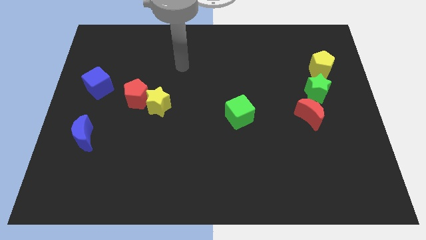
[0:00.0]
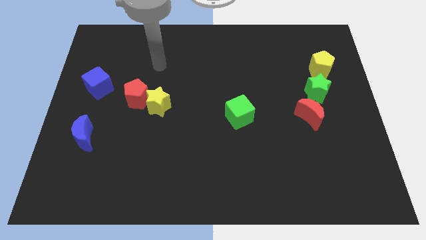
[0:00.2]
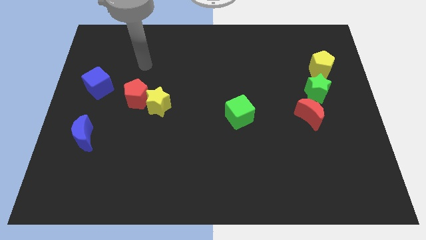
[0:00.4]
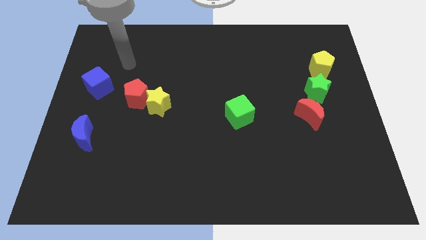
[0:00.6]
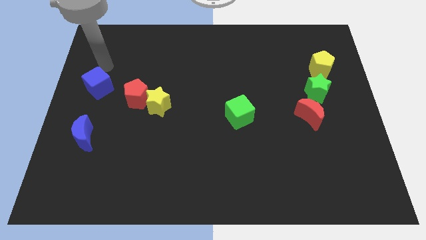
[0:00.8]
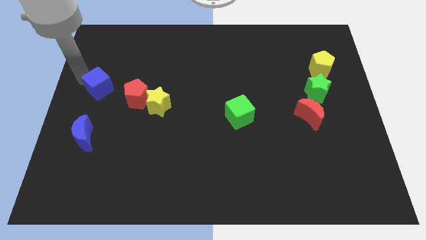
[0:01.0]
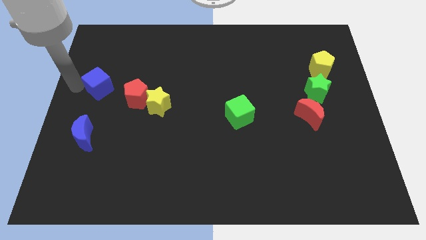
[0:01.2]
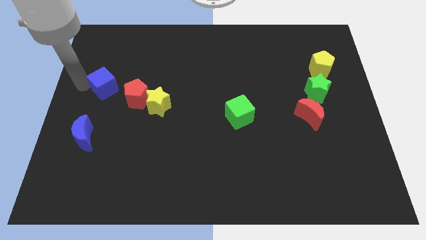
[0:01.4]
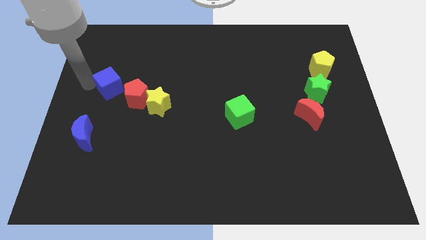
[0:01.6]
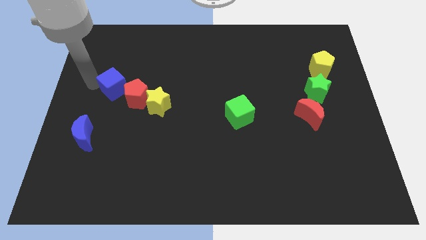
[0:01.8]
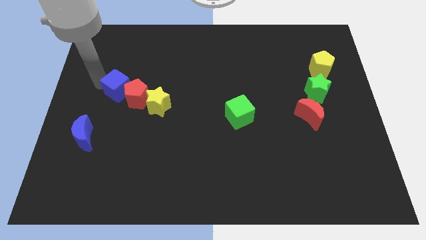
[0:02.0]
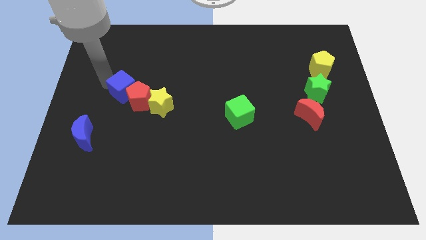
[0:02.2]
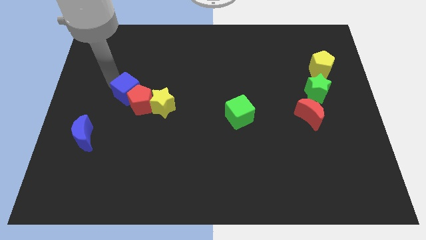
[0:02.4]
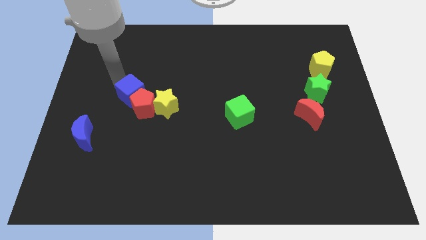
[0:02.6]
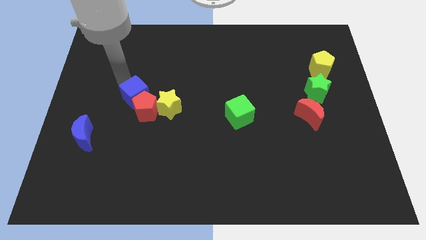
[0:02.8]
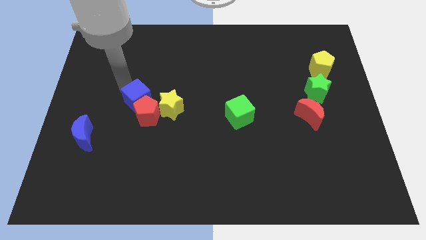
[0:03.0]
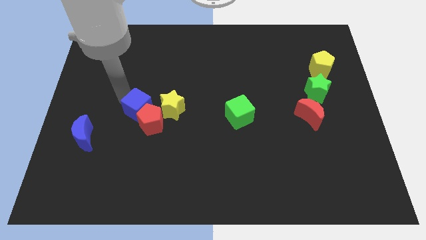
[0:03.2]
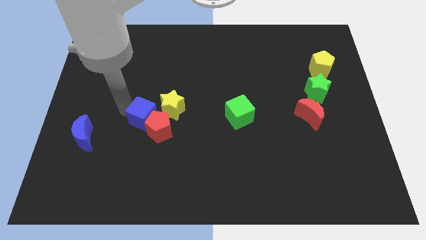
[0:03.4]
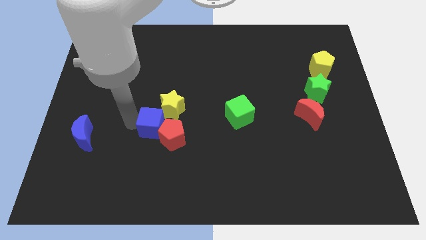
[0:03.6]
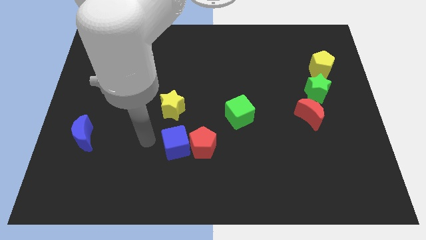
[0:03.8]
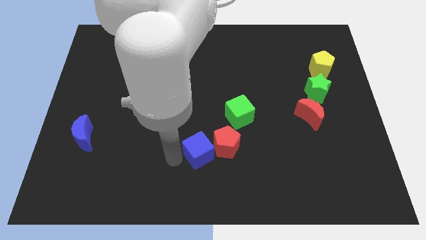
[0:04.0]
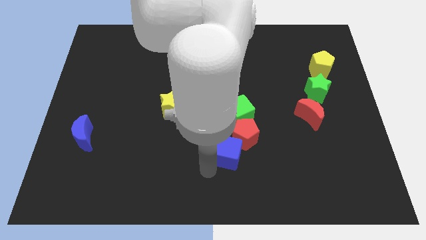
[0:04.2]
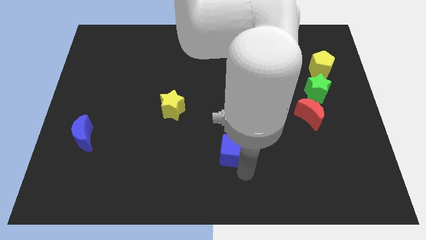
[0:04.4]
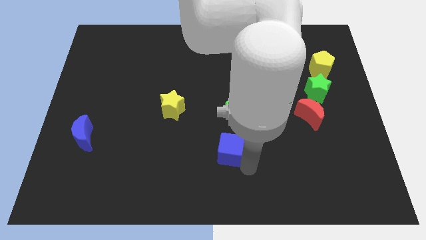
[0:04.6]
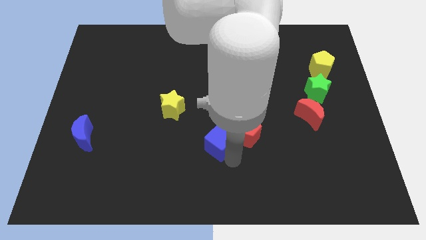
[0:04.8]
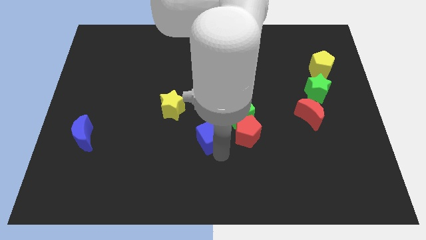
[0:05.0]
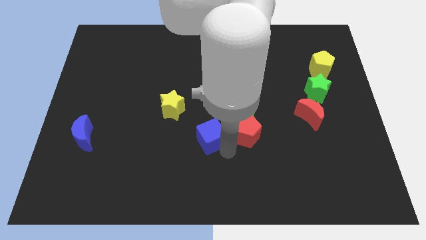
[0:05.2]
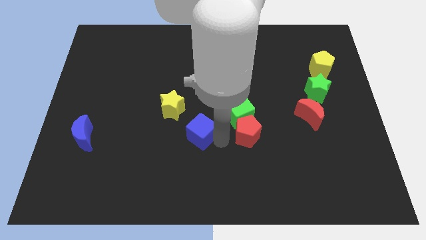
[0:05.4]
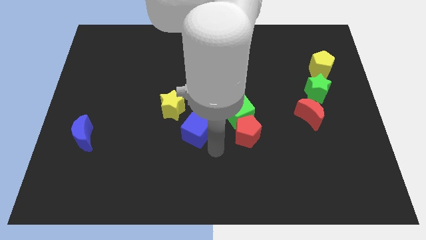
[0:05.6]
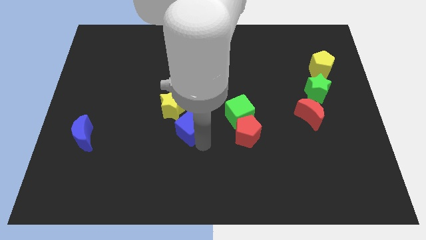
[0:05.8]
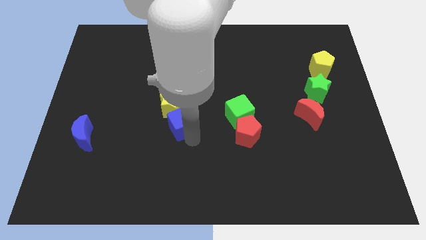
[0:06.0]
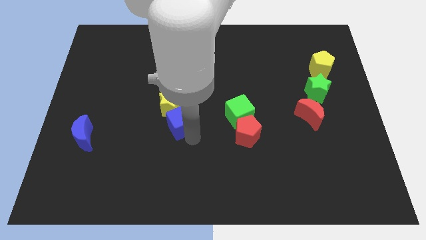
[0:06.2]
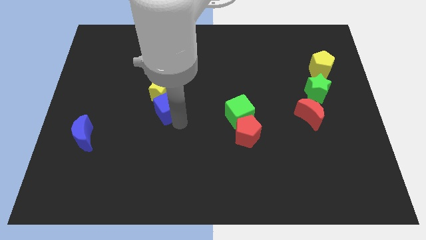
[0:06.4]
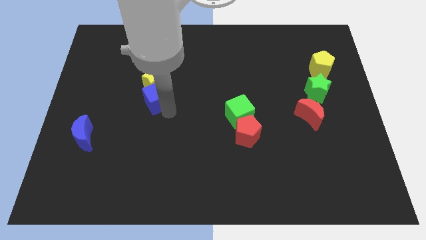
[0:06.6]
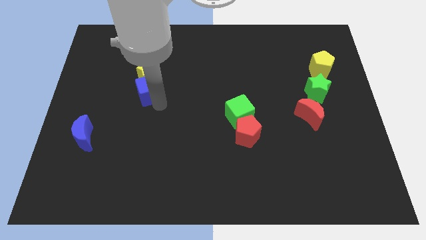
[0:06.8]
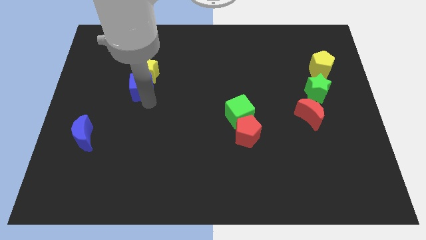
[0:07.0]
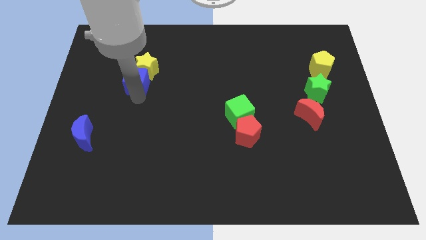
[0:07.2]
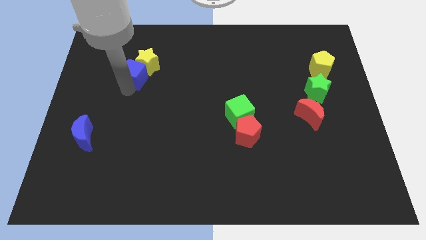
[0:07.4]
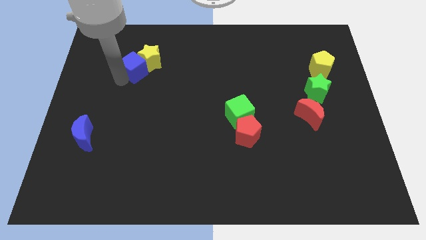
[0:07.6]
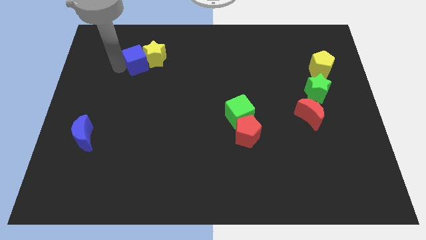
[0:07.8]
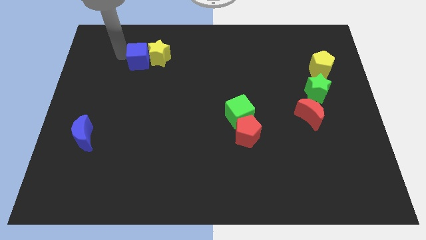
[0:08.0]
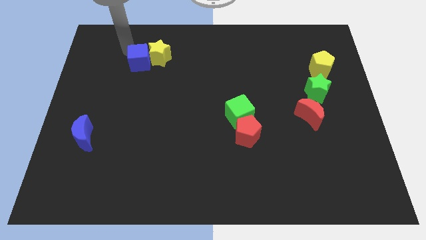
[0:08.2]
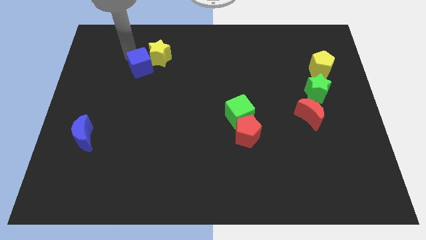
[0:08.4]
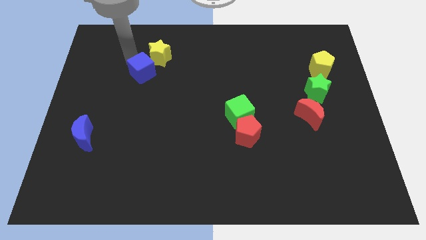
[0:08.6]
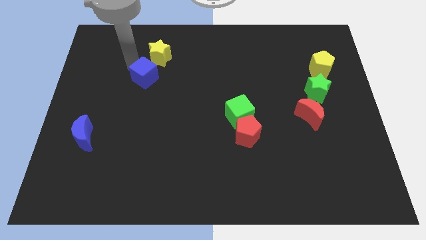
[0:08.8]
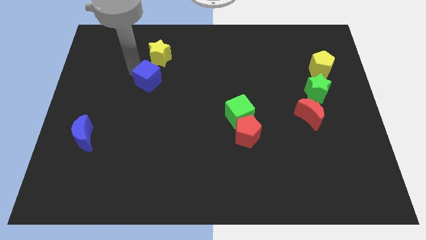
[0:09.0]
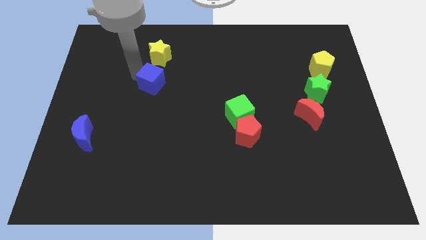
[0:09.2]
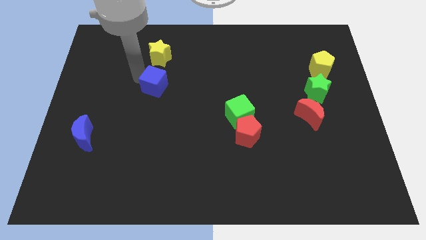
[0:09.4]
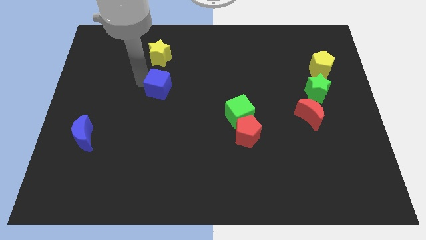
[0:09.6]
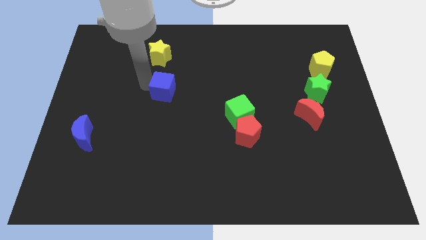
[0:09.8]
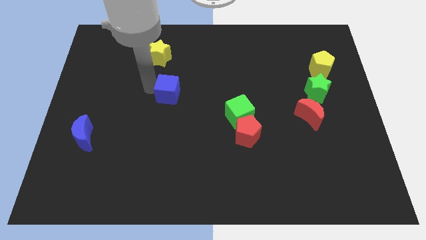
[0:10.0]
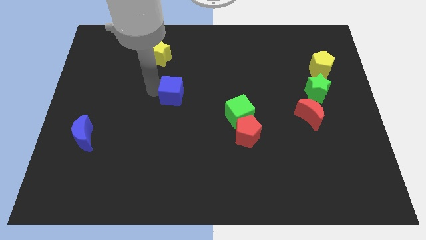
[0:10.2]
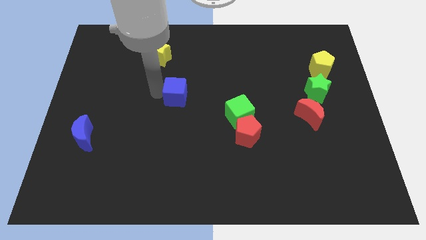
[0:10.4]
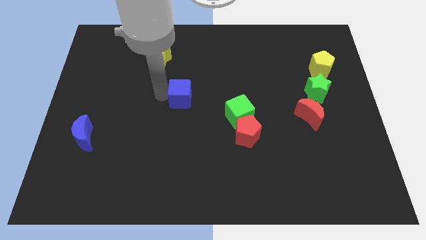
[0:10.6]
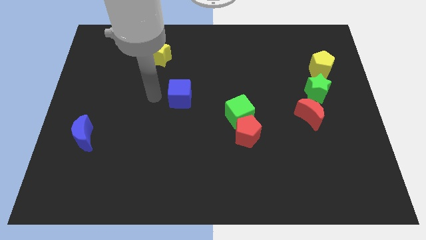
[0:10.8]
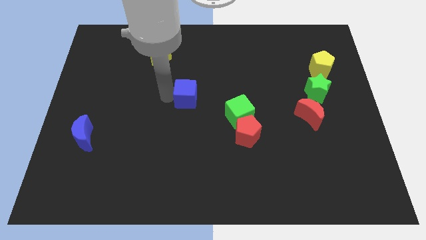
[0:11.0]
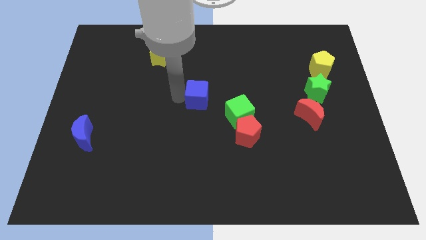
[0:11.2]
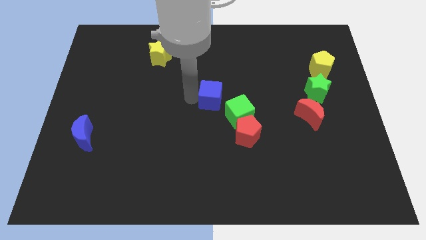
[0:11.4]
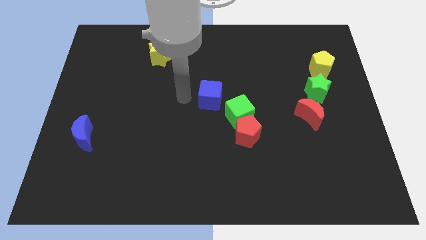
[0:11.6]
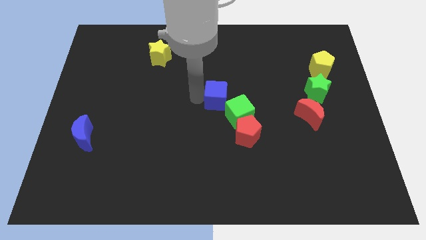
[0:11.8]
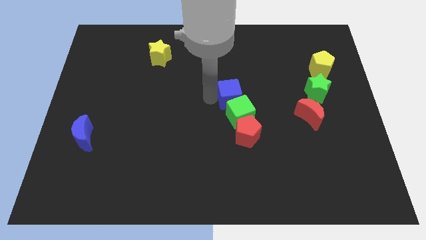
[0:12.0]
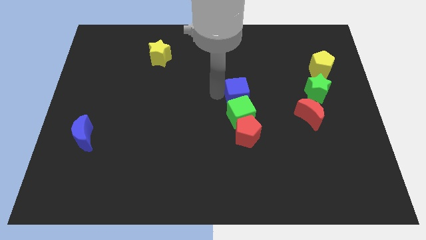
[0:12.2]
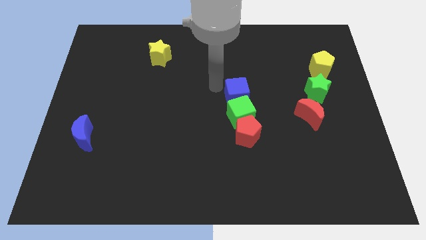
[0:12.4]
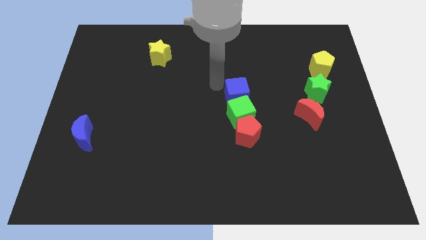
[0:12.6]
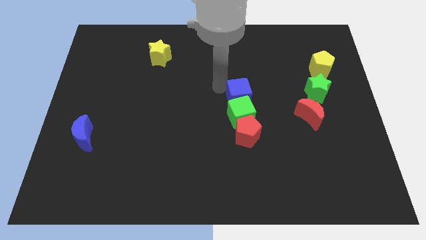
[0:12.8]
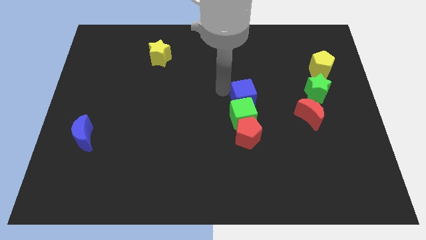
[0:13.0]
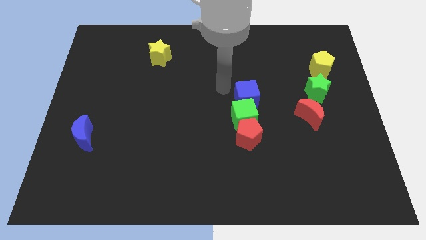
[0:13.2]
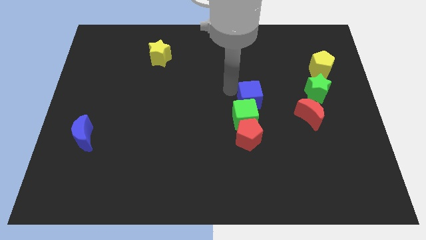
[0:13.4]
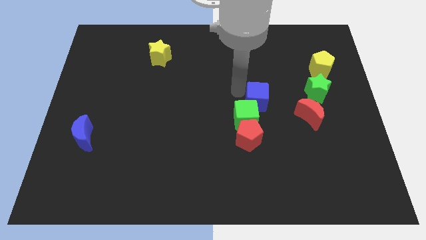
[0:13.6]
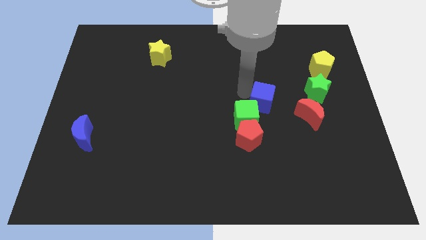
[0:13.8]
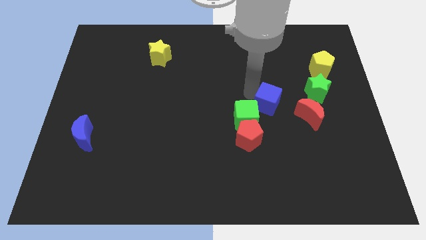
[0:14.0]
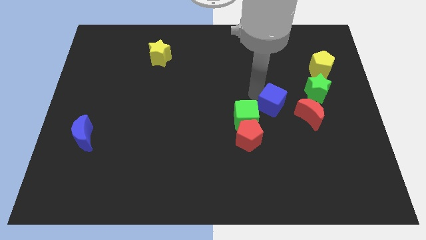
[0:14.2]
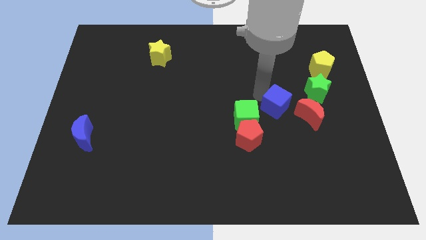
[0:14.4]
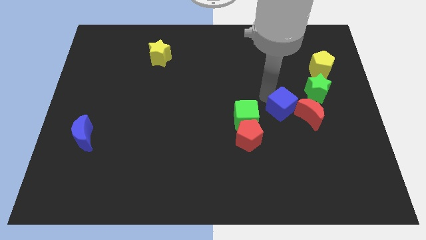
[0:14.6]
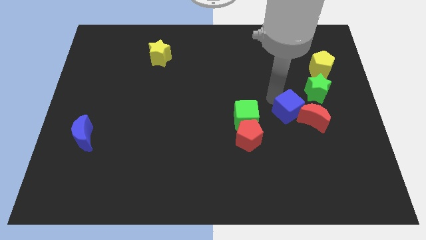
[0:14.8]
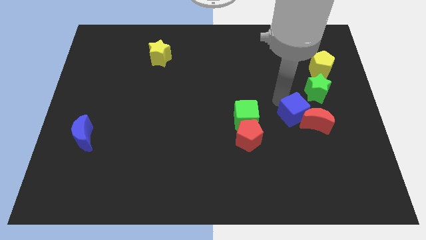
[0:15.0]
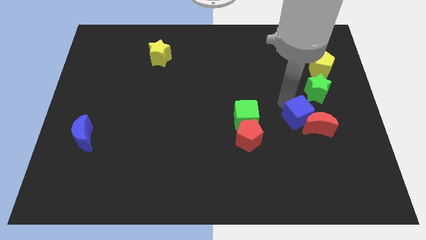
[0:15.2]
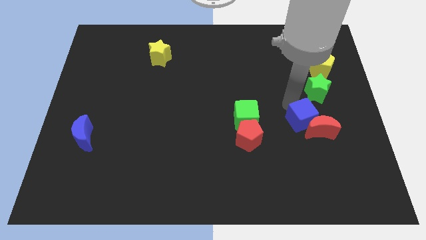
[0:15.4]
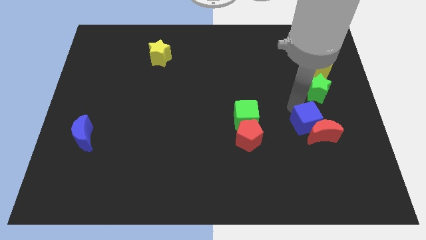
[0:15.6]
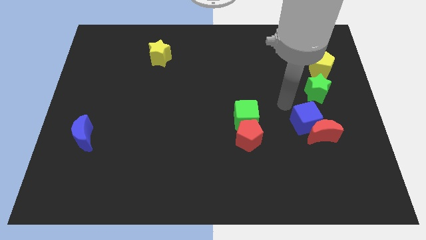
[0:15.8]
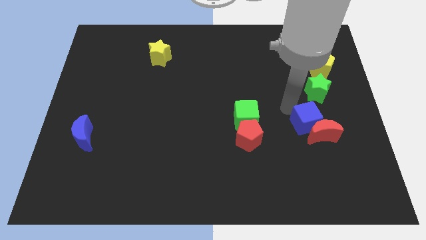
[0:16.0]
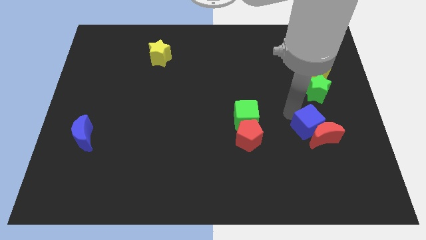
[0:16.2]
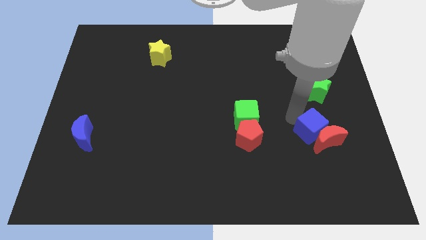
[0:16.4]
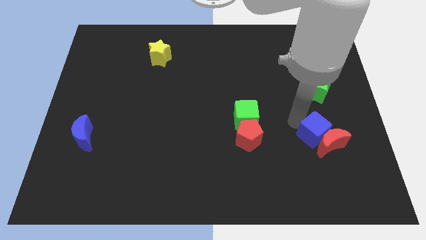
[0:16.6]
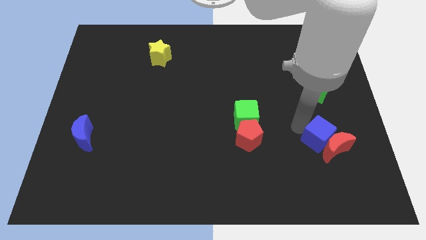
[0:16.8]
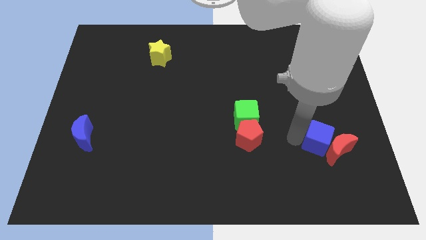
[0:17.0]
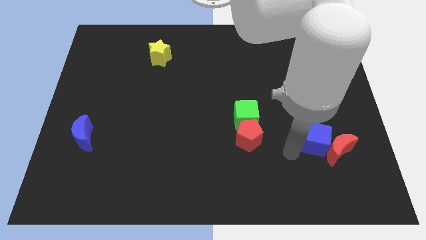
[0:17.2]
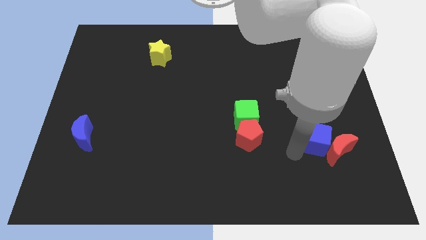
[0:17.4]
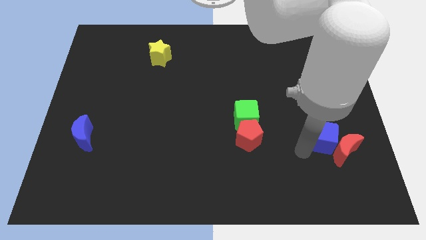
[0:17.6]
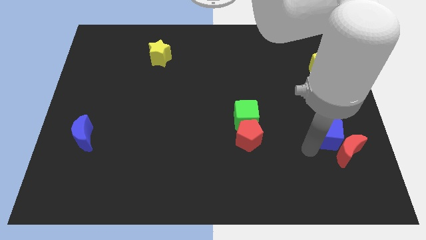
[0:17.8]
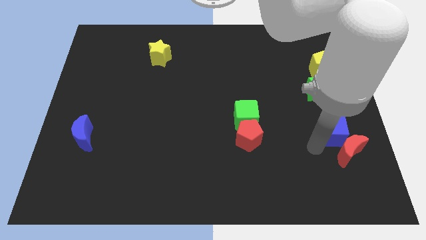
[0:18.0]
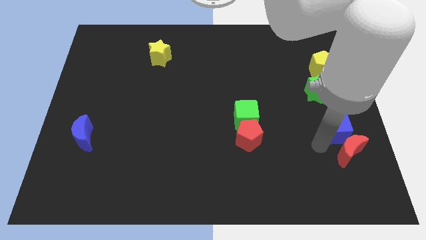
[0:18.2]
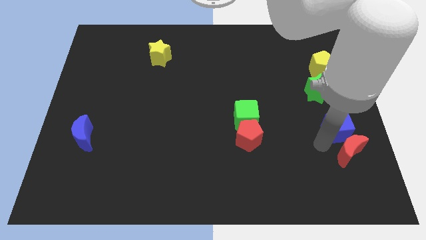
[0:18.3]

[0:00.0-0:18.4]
slide the blue cube to the right side of the board
